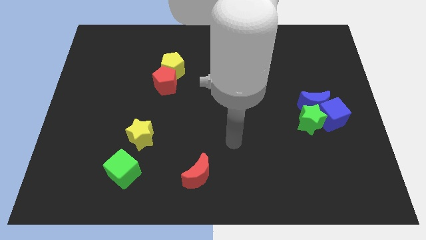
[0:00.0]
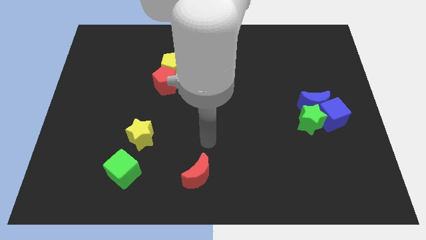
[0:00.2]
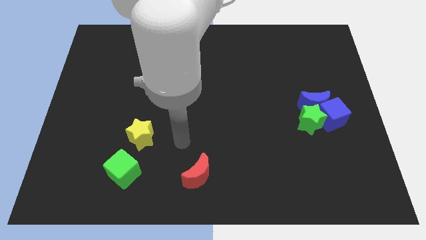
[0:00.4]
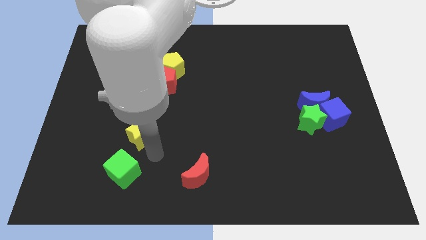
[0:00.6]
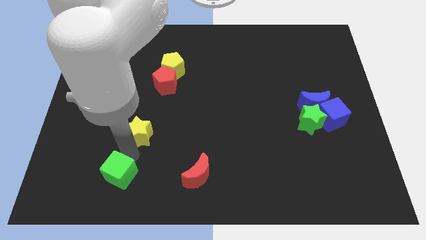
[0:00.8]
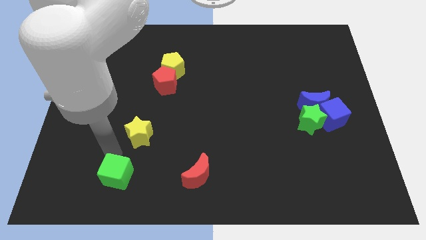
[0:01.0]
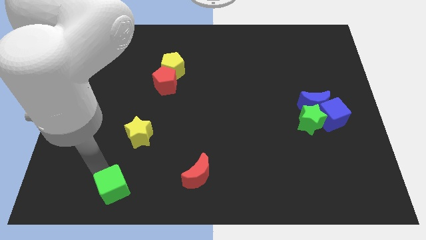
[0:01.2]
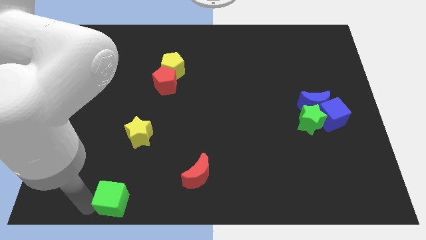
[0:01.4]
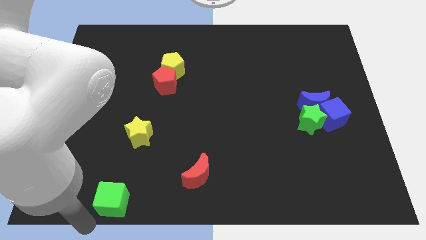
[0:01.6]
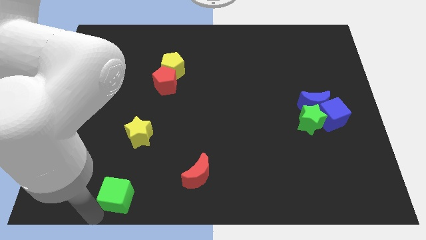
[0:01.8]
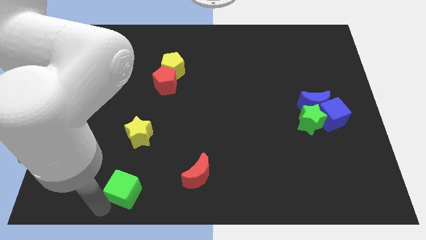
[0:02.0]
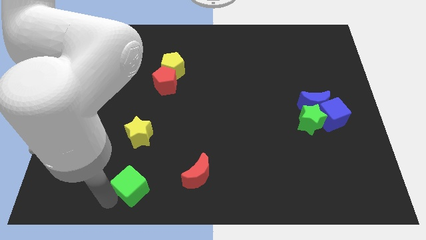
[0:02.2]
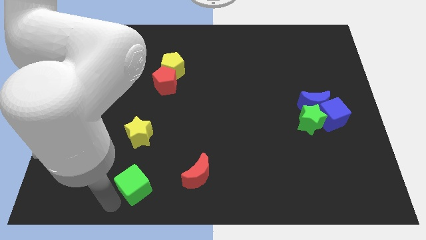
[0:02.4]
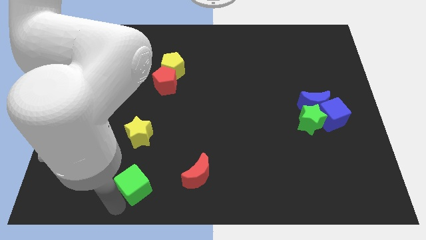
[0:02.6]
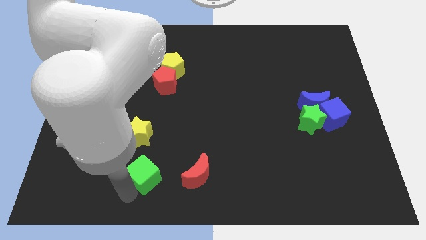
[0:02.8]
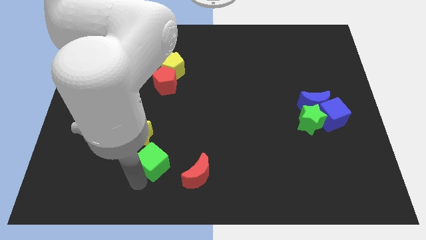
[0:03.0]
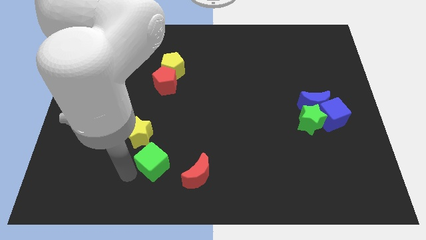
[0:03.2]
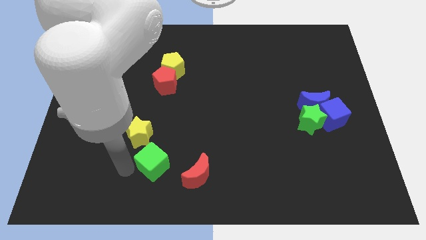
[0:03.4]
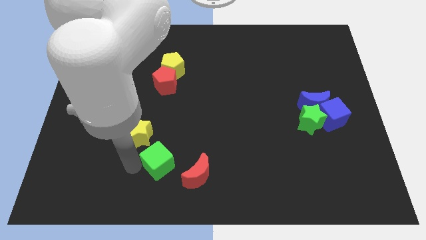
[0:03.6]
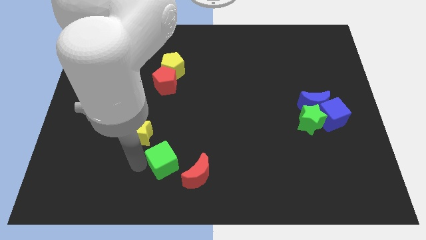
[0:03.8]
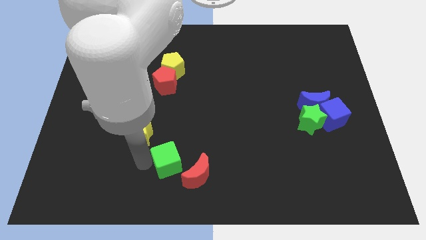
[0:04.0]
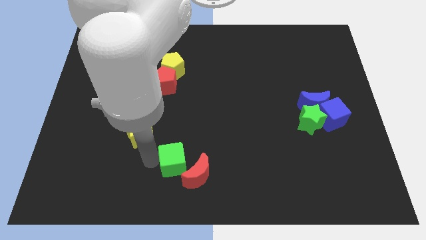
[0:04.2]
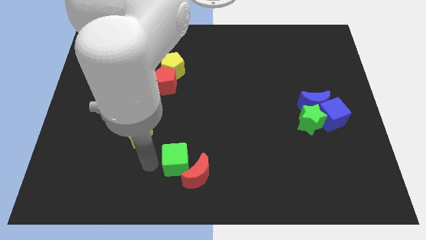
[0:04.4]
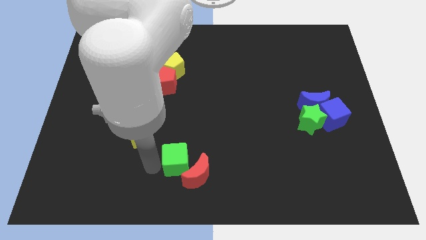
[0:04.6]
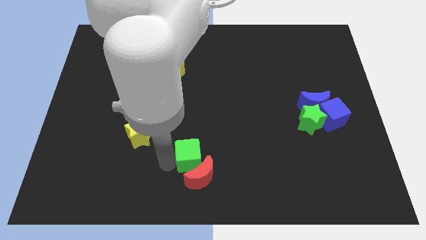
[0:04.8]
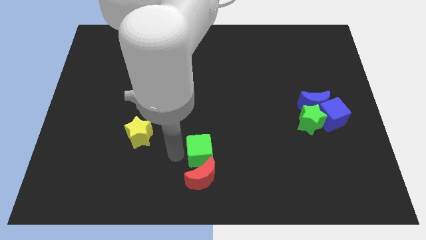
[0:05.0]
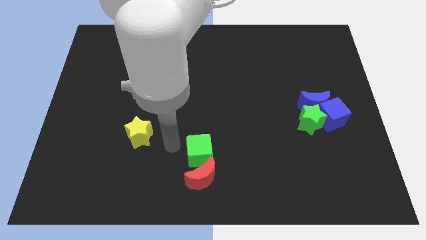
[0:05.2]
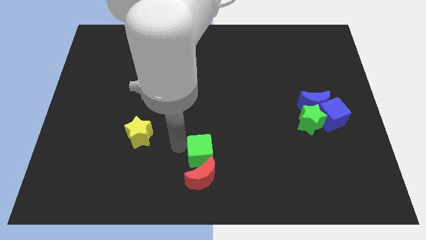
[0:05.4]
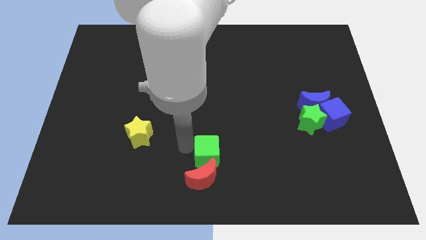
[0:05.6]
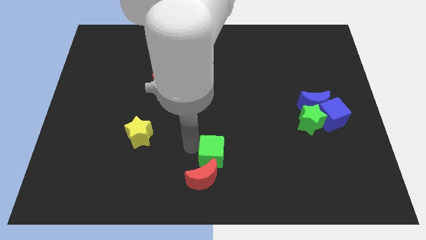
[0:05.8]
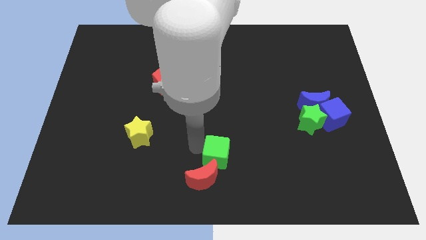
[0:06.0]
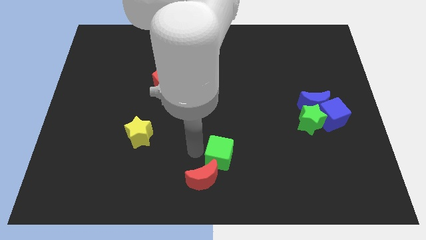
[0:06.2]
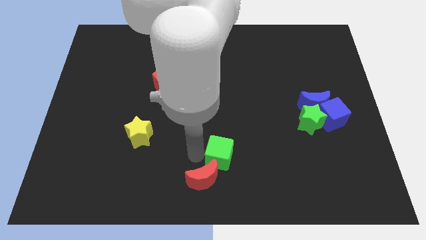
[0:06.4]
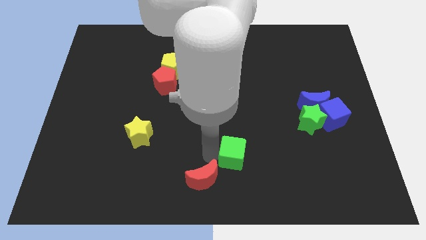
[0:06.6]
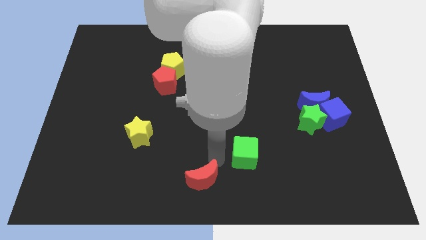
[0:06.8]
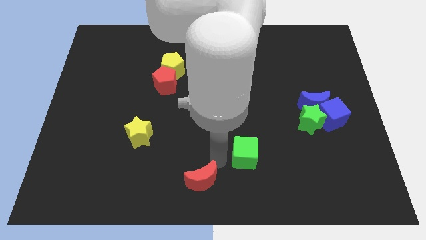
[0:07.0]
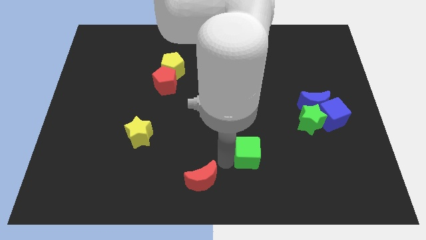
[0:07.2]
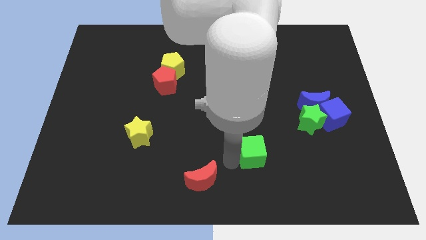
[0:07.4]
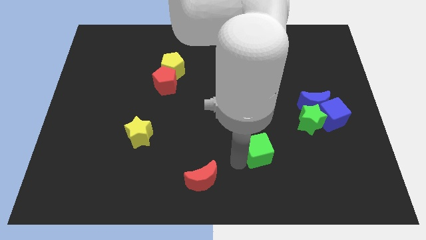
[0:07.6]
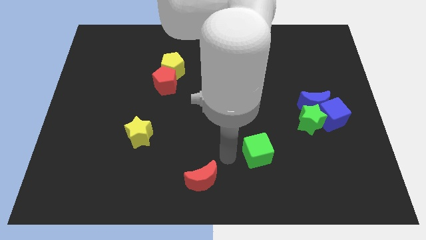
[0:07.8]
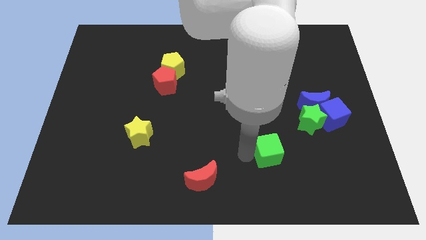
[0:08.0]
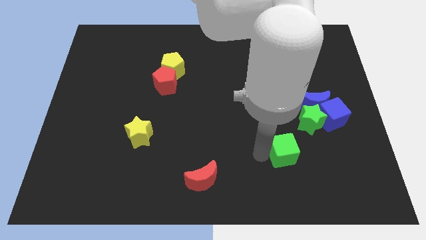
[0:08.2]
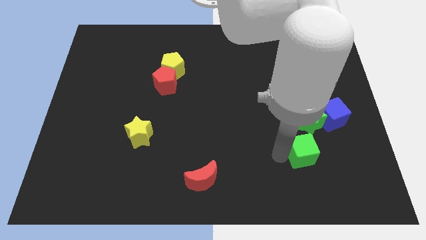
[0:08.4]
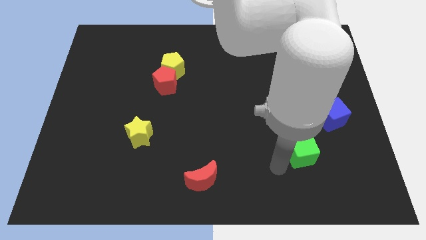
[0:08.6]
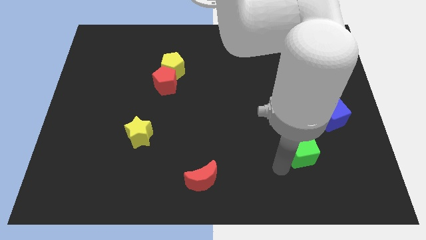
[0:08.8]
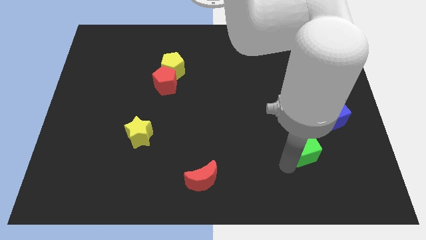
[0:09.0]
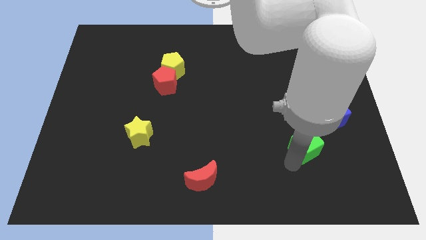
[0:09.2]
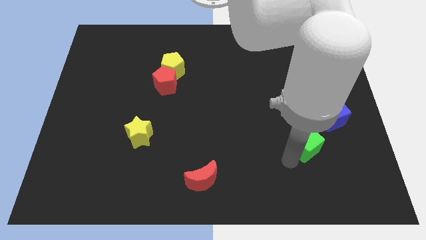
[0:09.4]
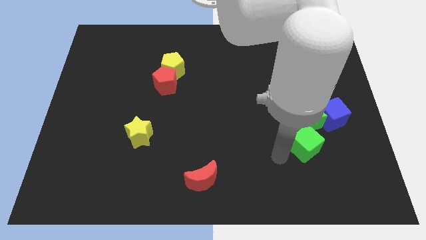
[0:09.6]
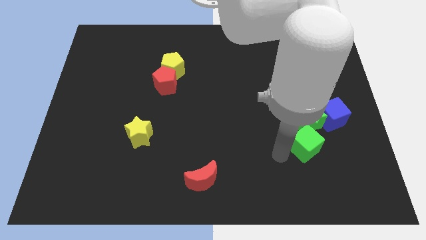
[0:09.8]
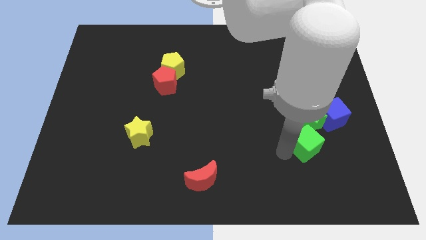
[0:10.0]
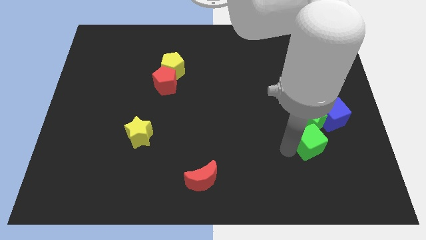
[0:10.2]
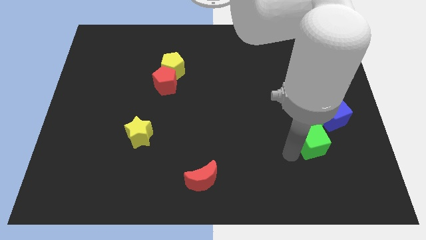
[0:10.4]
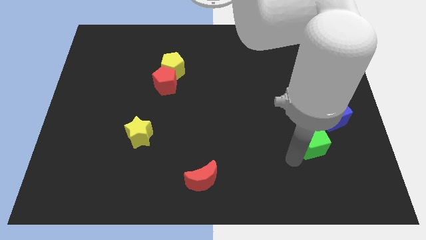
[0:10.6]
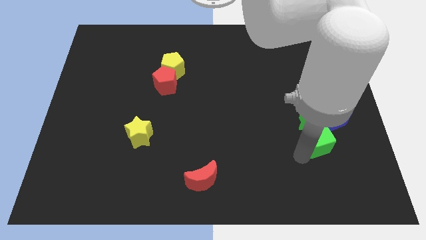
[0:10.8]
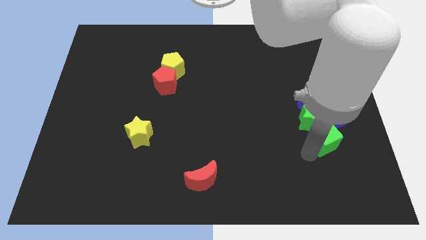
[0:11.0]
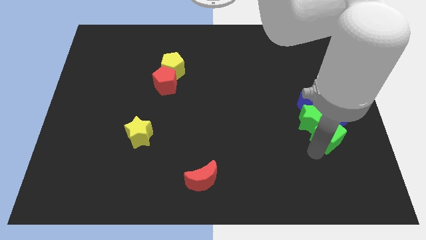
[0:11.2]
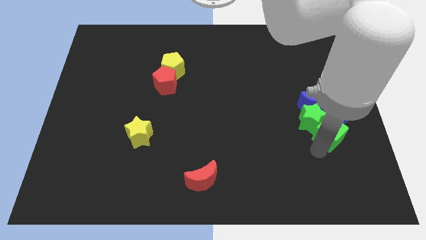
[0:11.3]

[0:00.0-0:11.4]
put the green cube to the bottom right of the blue moon
